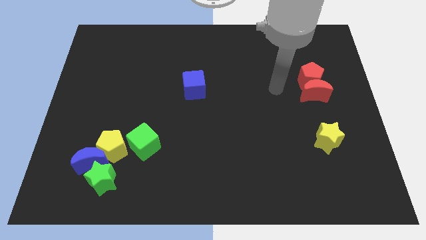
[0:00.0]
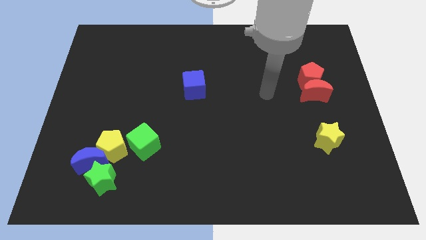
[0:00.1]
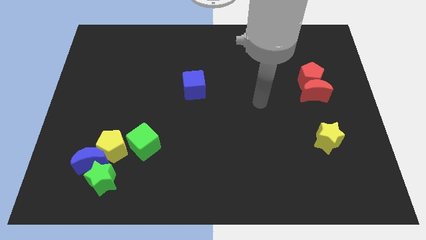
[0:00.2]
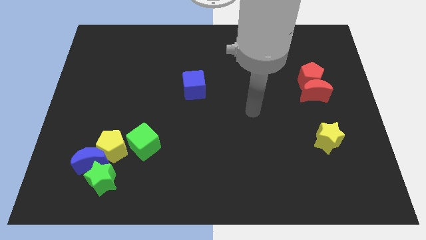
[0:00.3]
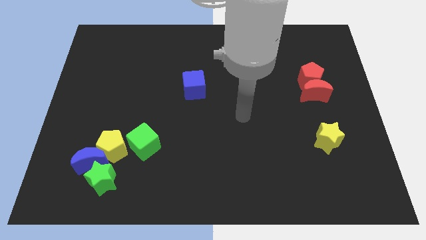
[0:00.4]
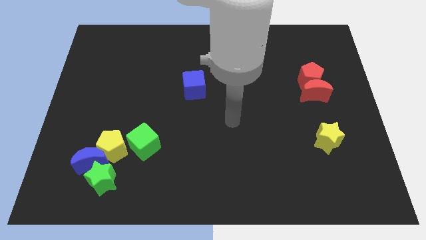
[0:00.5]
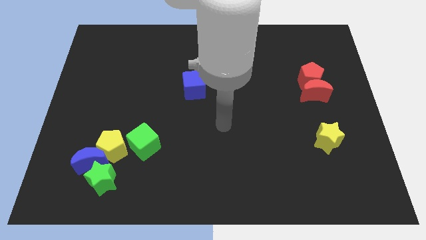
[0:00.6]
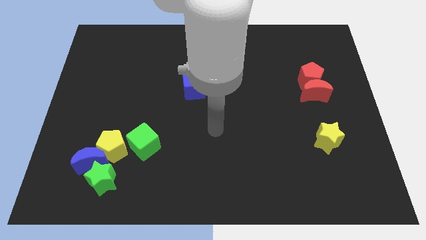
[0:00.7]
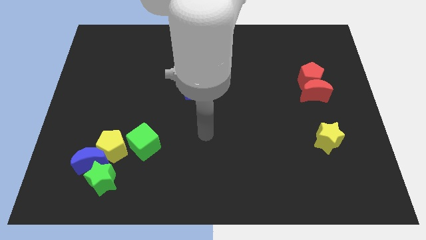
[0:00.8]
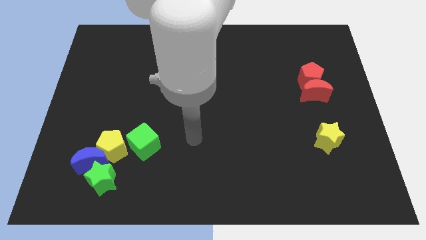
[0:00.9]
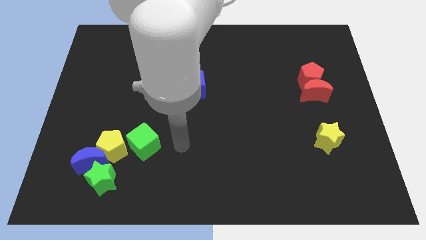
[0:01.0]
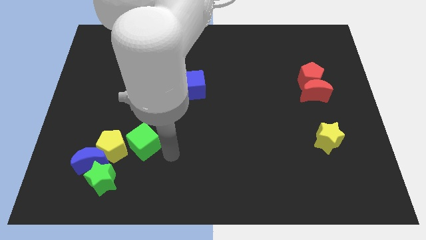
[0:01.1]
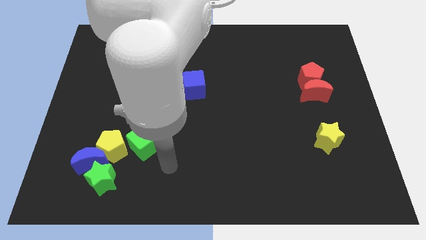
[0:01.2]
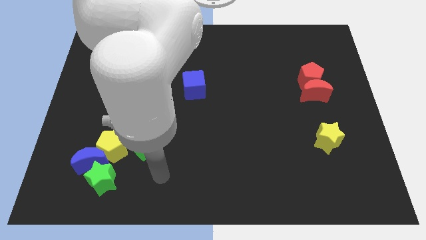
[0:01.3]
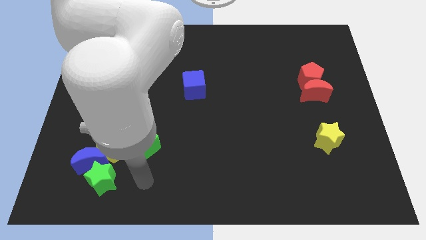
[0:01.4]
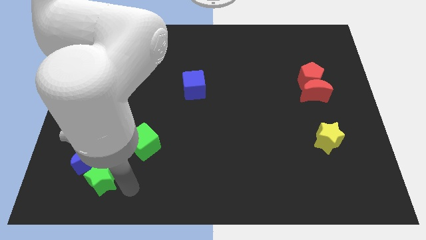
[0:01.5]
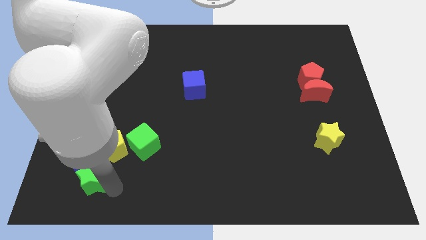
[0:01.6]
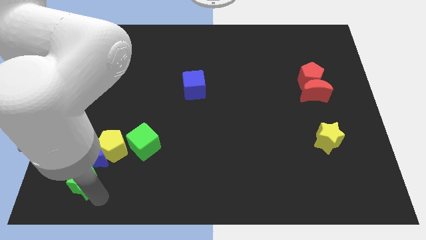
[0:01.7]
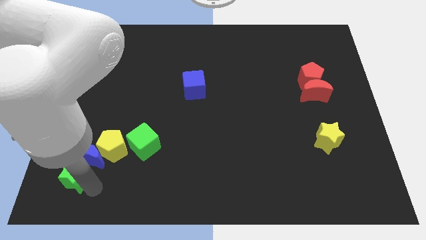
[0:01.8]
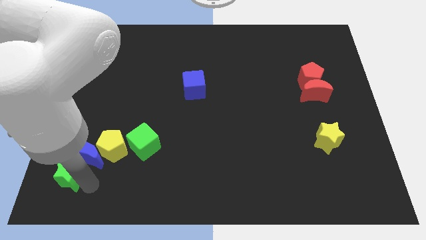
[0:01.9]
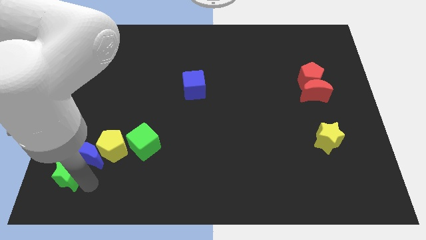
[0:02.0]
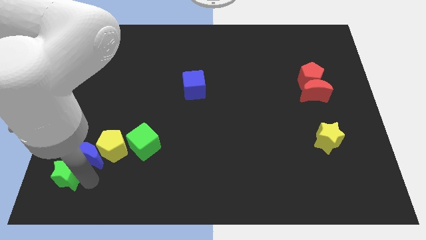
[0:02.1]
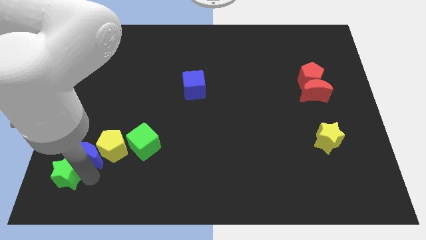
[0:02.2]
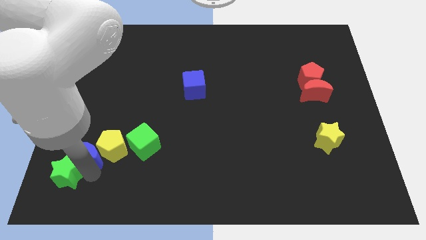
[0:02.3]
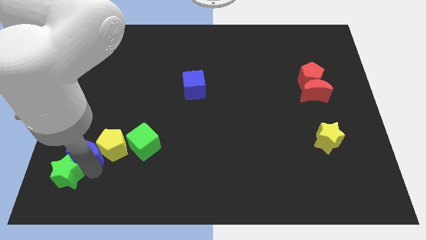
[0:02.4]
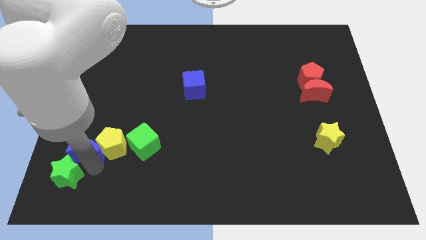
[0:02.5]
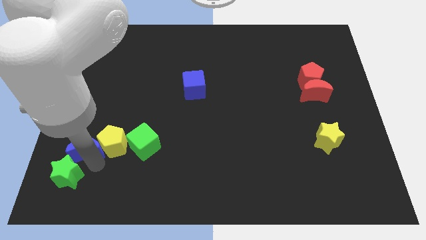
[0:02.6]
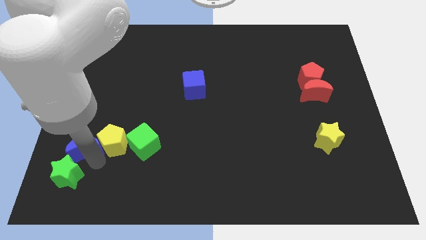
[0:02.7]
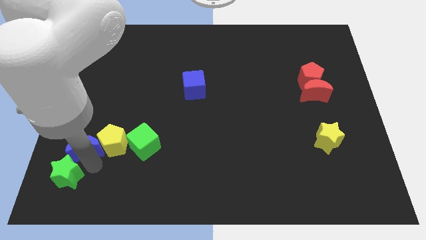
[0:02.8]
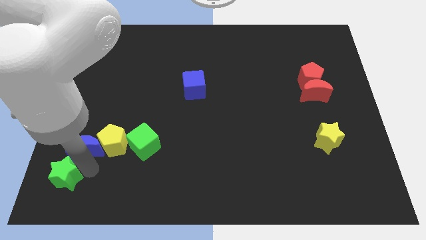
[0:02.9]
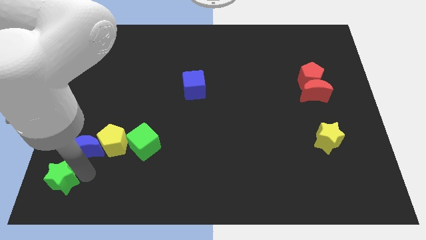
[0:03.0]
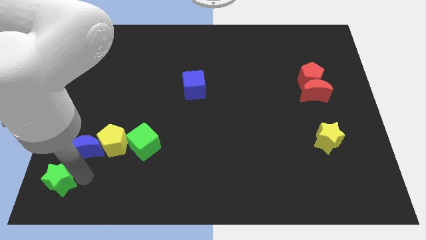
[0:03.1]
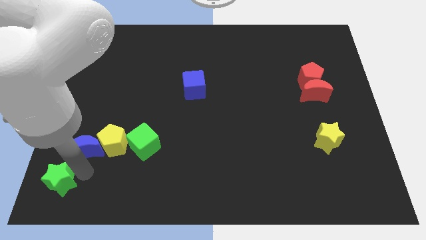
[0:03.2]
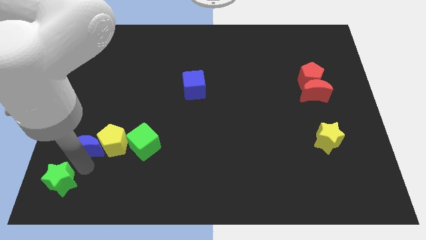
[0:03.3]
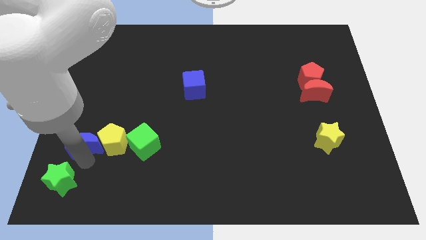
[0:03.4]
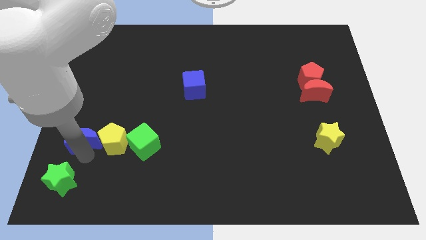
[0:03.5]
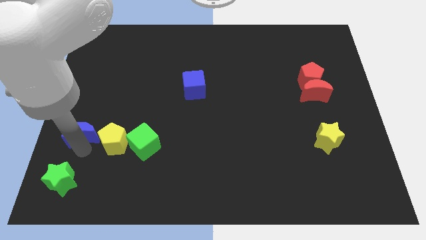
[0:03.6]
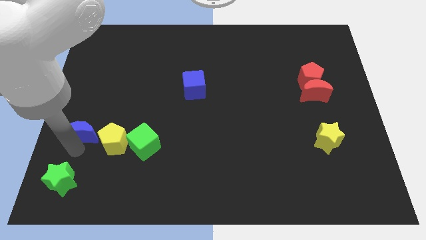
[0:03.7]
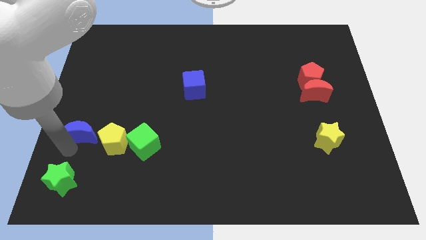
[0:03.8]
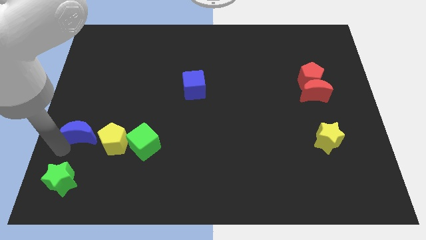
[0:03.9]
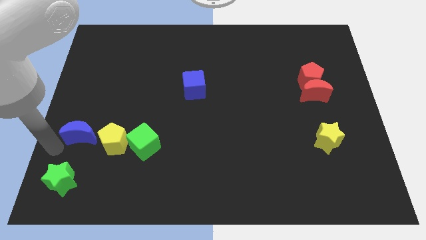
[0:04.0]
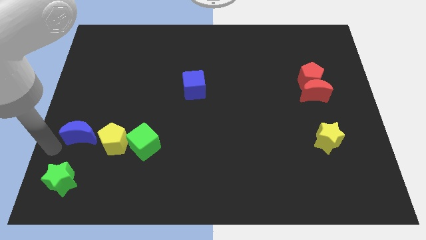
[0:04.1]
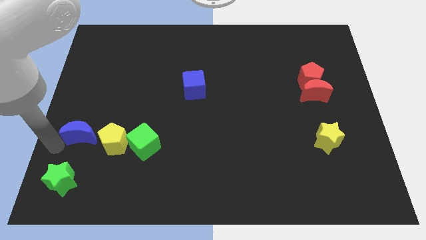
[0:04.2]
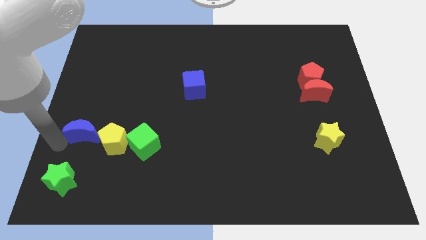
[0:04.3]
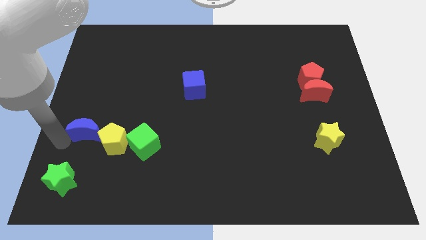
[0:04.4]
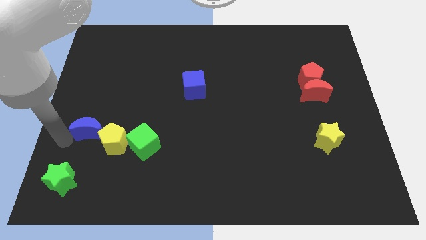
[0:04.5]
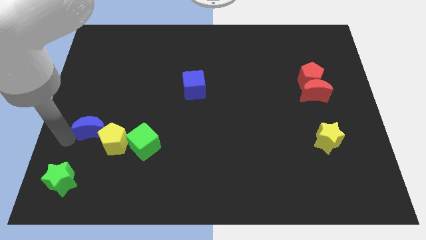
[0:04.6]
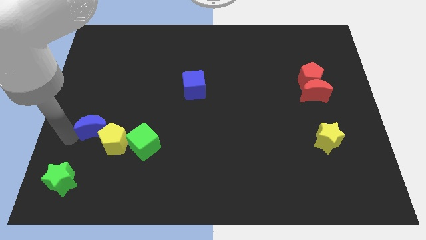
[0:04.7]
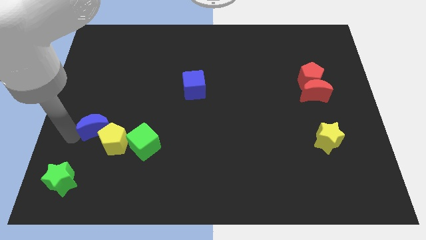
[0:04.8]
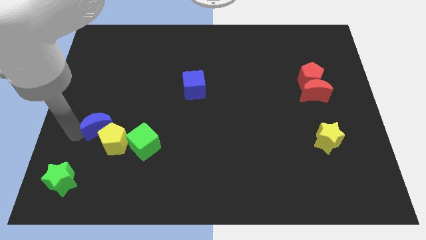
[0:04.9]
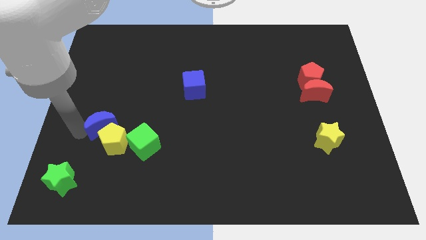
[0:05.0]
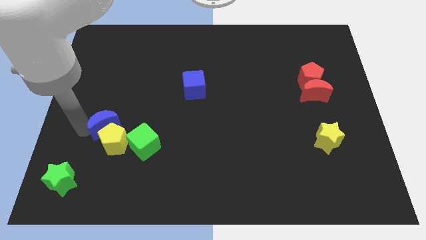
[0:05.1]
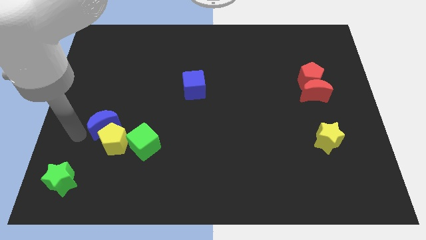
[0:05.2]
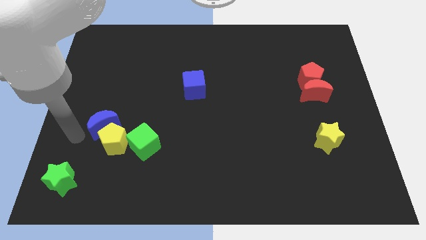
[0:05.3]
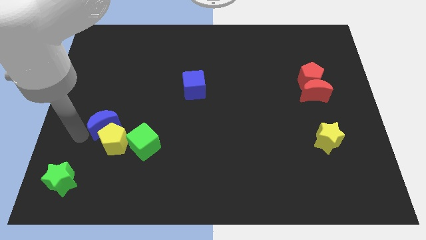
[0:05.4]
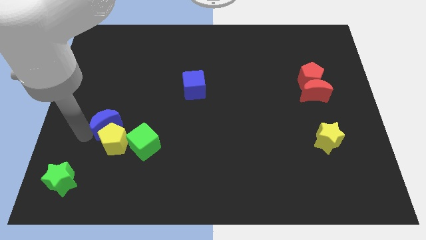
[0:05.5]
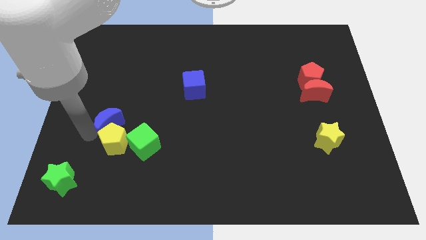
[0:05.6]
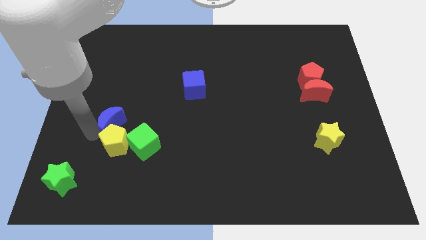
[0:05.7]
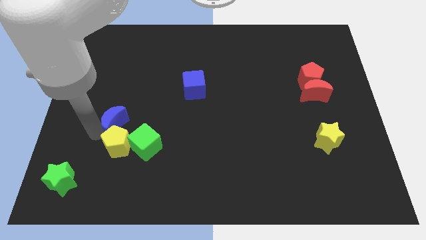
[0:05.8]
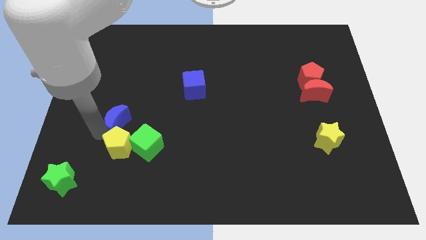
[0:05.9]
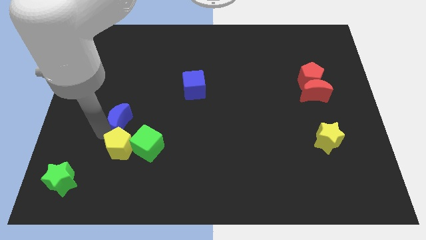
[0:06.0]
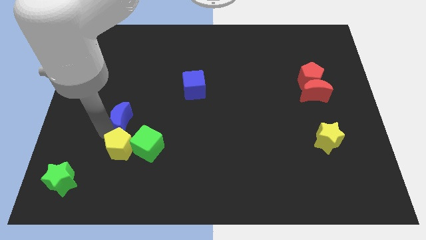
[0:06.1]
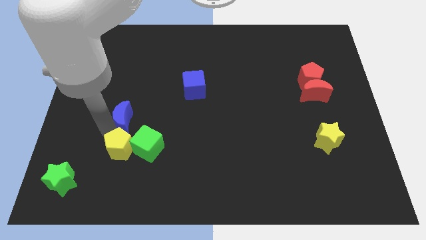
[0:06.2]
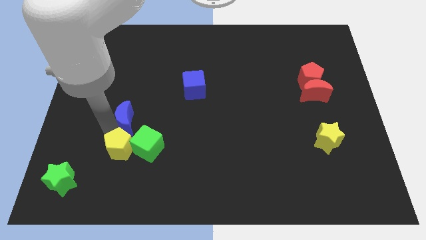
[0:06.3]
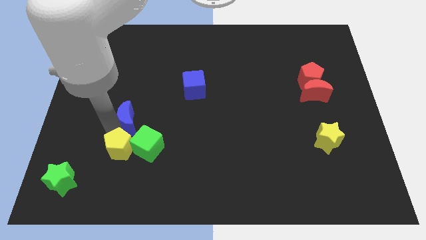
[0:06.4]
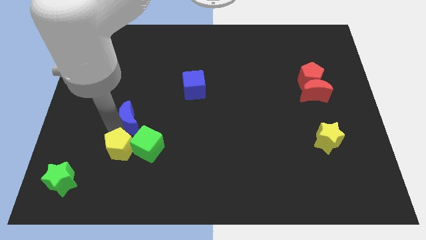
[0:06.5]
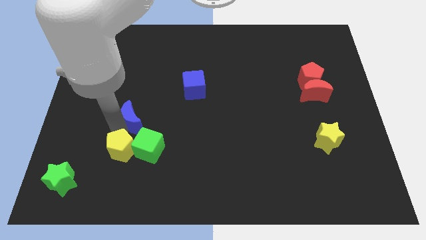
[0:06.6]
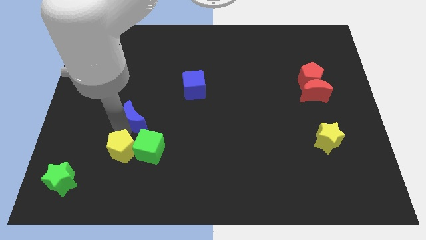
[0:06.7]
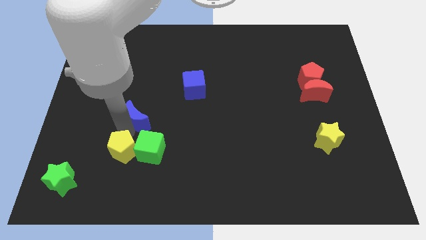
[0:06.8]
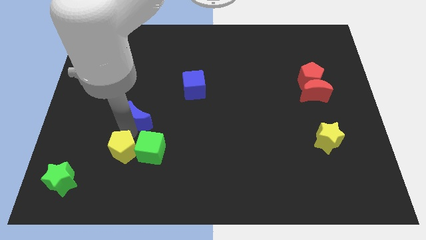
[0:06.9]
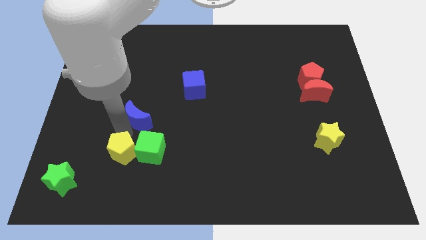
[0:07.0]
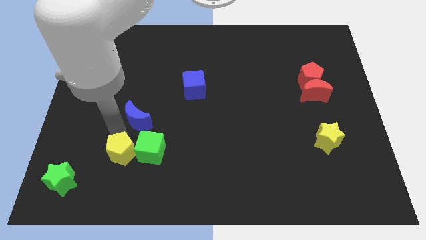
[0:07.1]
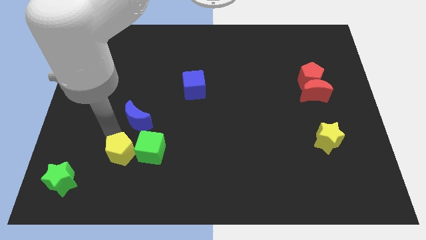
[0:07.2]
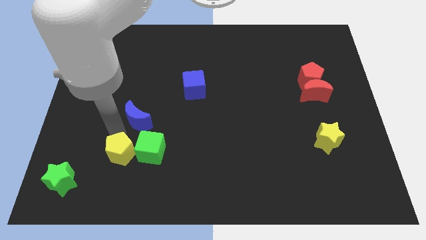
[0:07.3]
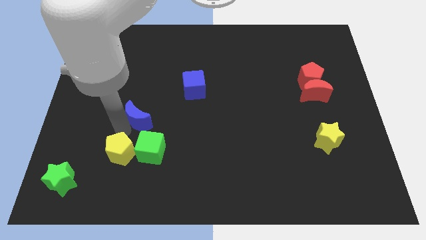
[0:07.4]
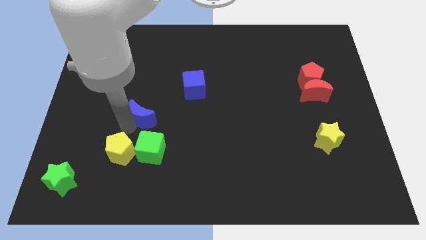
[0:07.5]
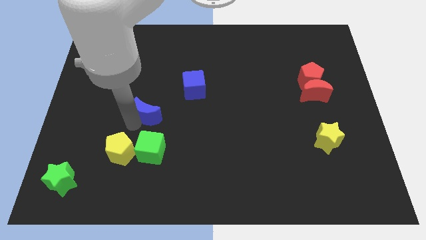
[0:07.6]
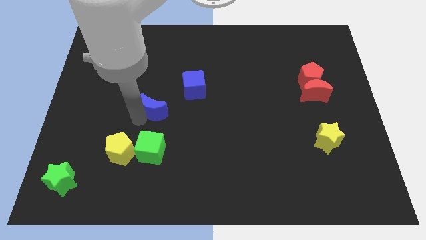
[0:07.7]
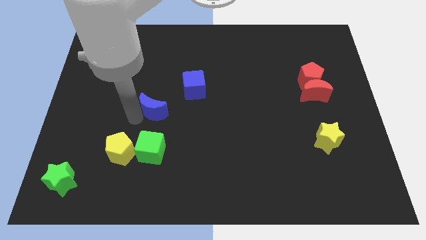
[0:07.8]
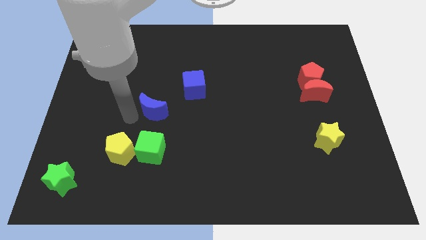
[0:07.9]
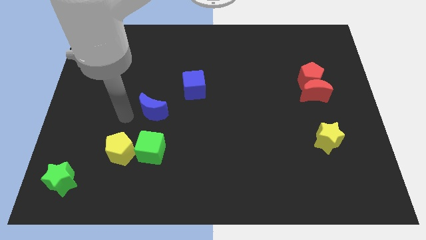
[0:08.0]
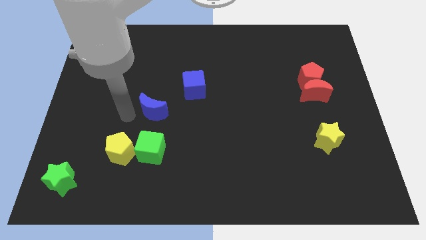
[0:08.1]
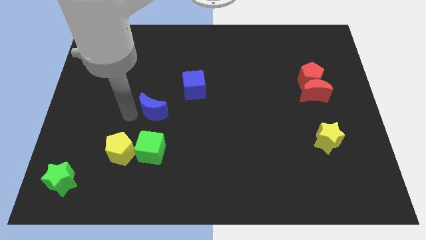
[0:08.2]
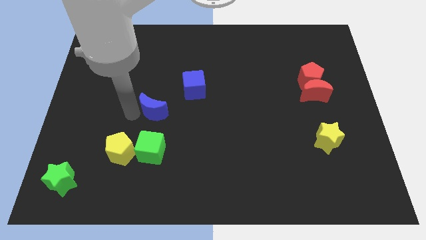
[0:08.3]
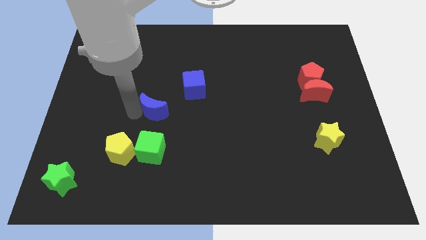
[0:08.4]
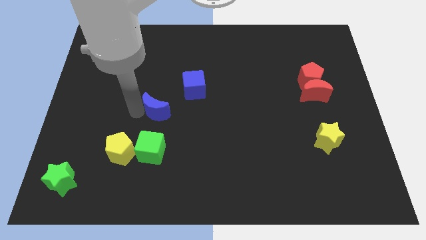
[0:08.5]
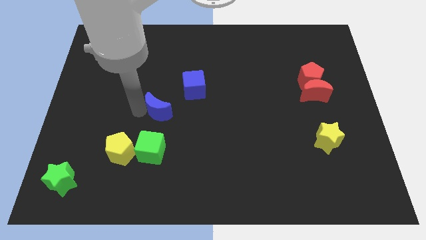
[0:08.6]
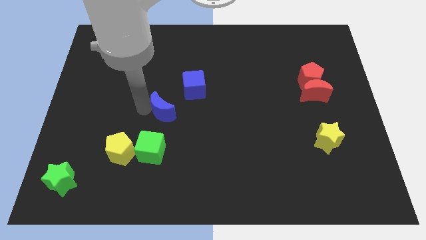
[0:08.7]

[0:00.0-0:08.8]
push the blue moon to the middle of the board
